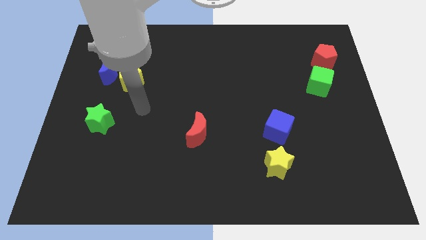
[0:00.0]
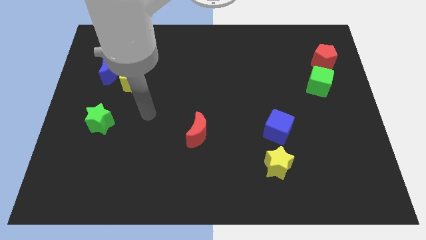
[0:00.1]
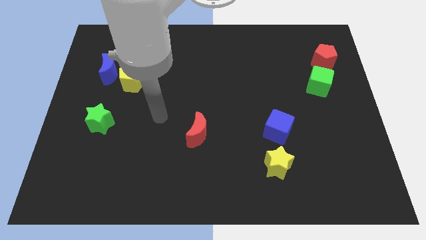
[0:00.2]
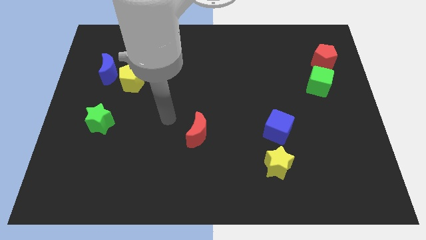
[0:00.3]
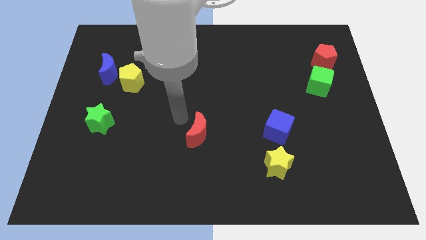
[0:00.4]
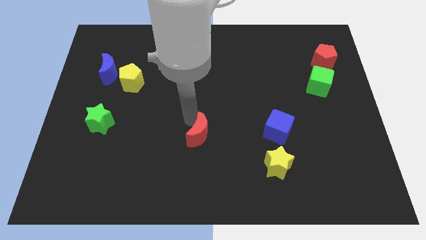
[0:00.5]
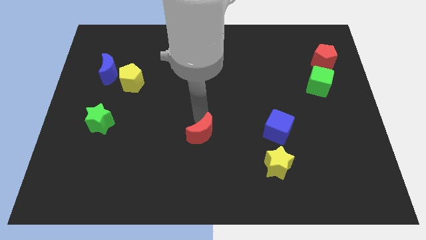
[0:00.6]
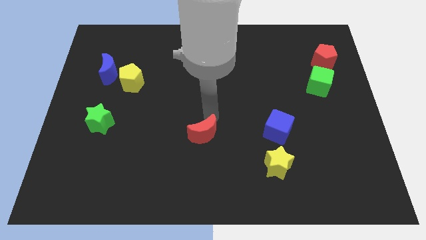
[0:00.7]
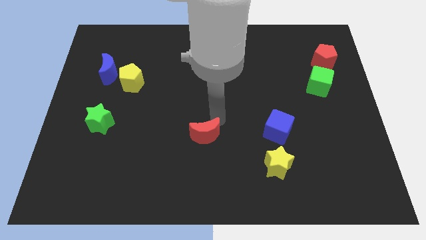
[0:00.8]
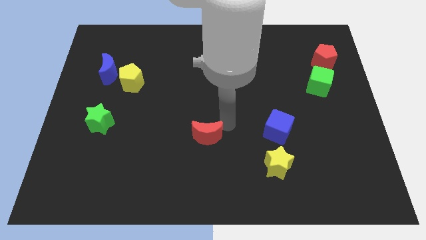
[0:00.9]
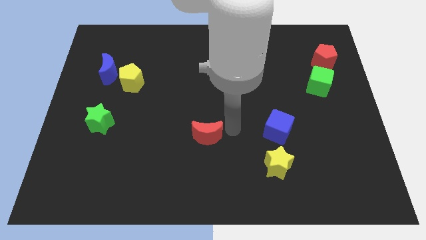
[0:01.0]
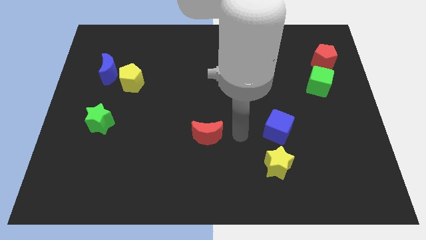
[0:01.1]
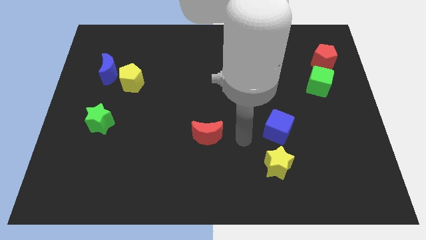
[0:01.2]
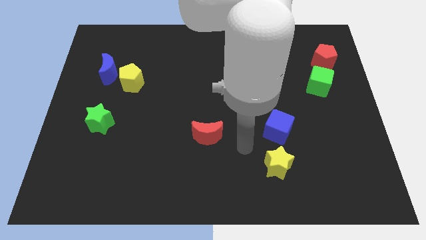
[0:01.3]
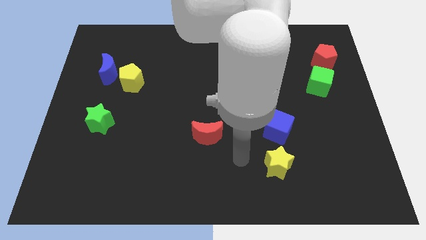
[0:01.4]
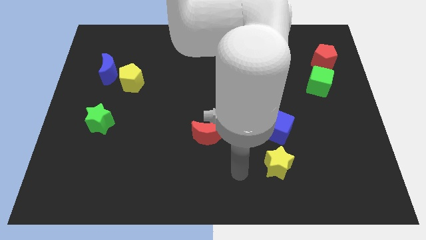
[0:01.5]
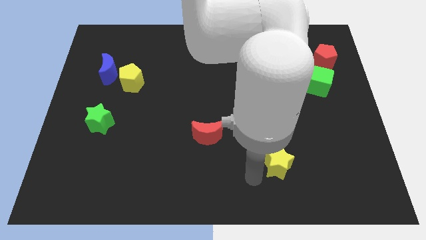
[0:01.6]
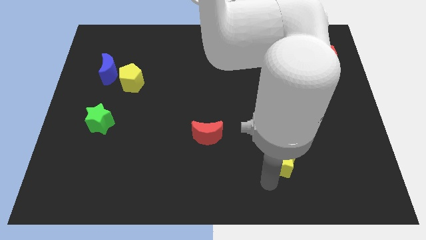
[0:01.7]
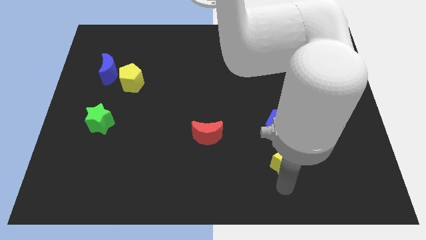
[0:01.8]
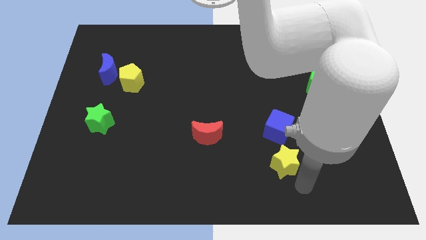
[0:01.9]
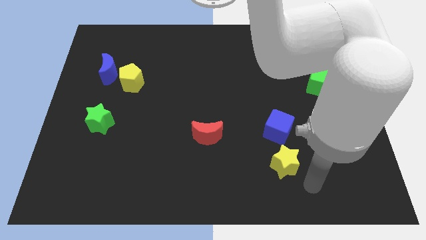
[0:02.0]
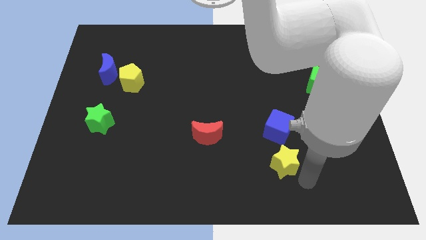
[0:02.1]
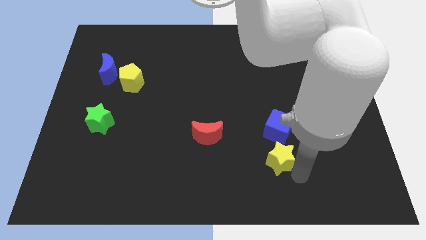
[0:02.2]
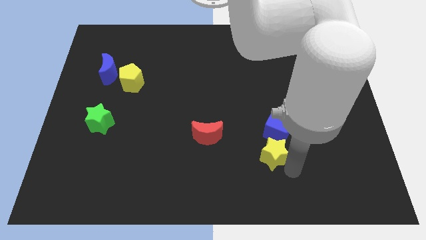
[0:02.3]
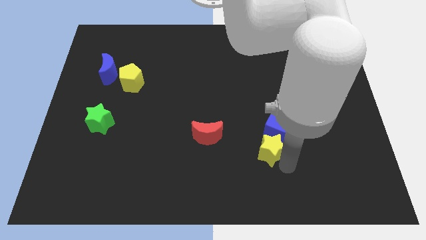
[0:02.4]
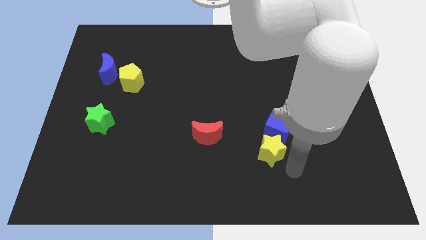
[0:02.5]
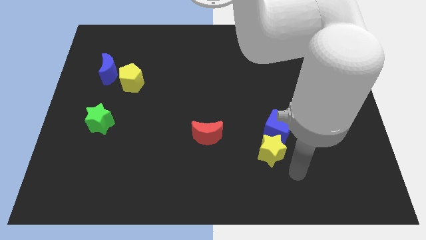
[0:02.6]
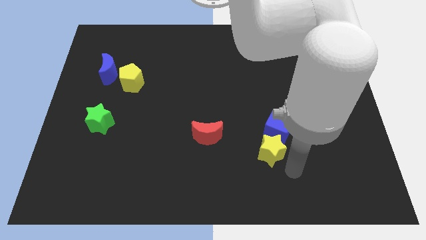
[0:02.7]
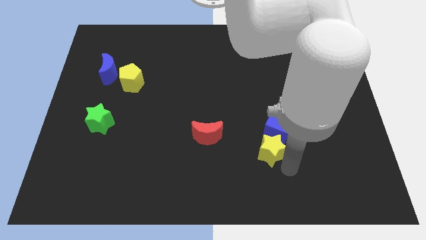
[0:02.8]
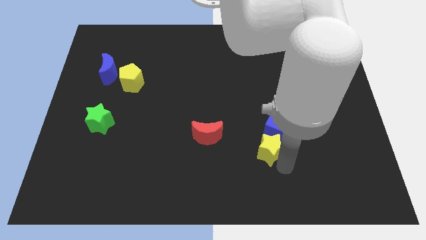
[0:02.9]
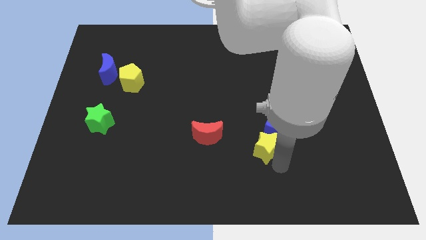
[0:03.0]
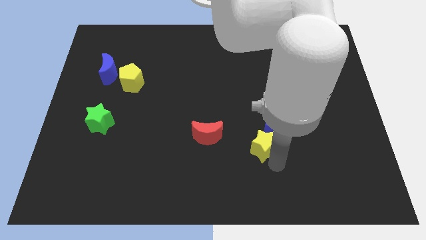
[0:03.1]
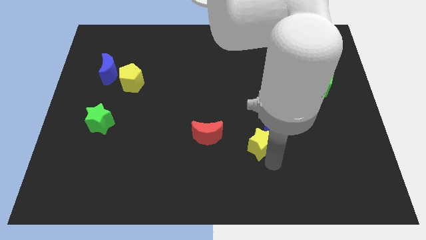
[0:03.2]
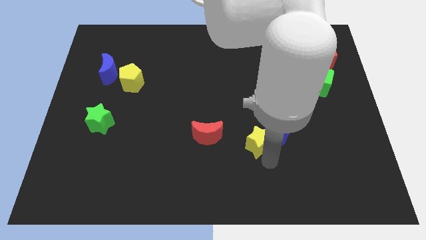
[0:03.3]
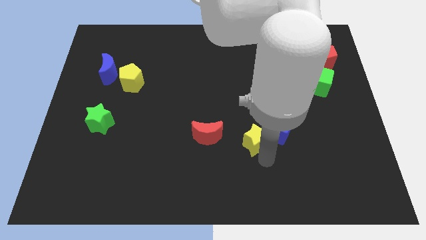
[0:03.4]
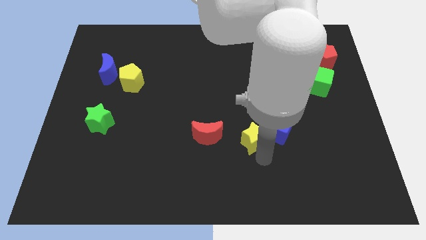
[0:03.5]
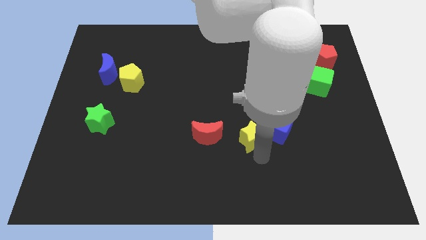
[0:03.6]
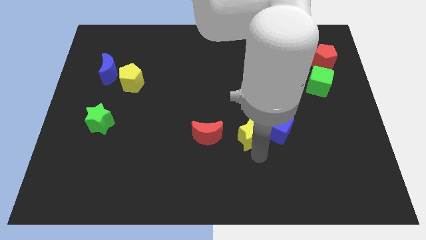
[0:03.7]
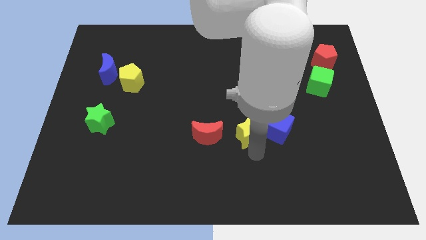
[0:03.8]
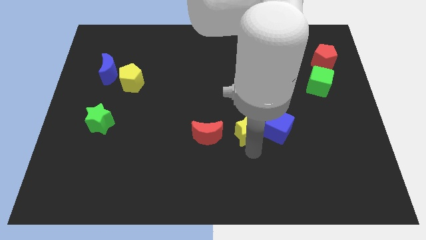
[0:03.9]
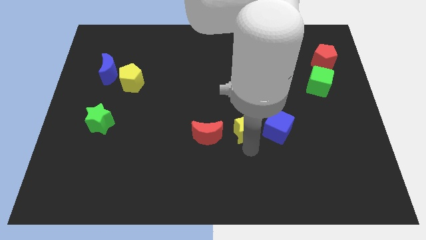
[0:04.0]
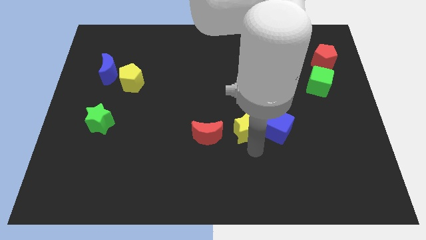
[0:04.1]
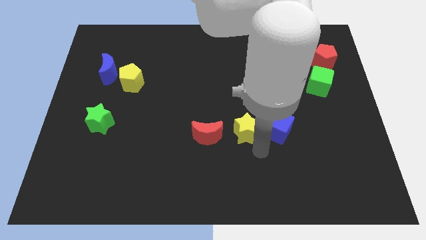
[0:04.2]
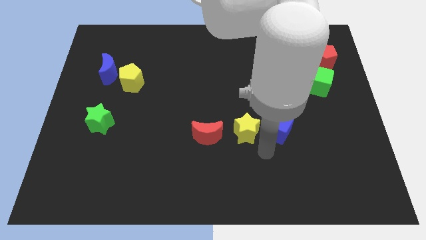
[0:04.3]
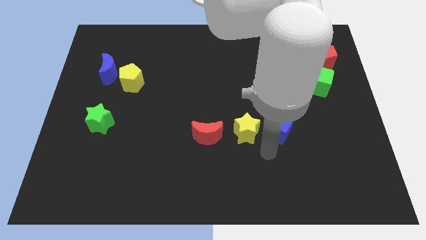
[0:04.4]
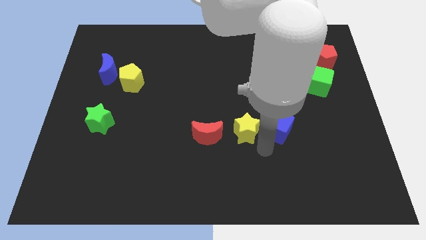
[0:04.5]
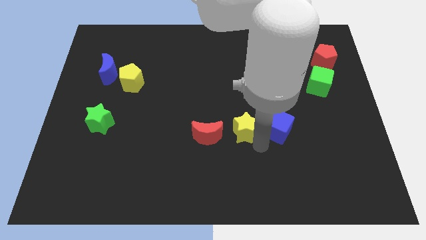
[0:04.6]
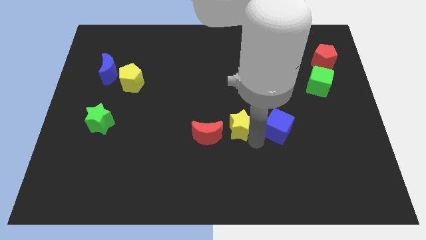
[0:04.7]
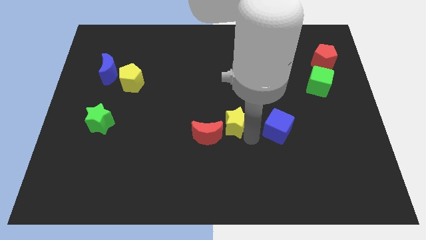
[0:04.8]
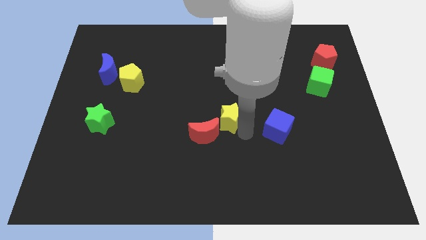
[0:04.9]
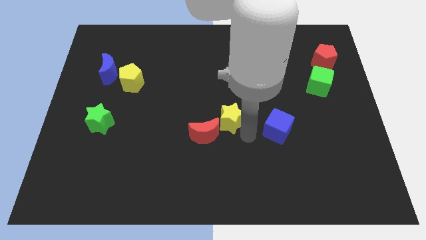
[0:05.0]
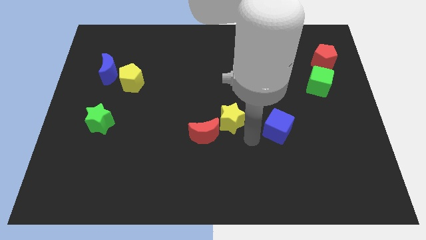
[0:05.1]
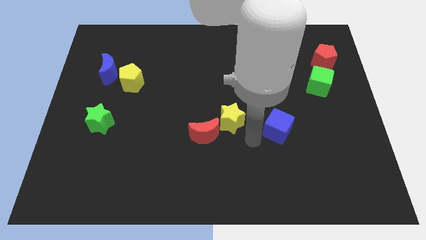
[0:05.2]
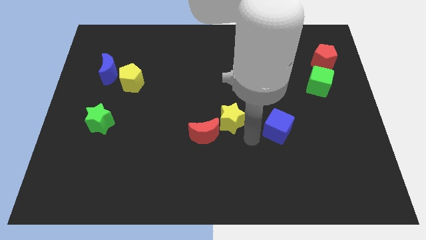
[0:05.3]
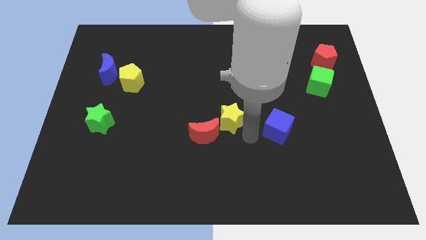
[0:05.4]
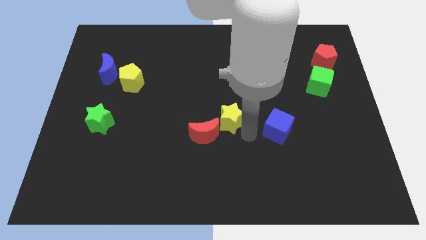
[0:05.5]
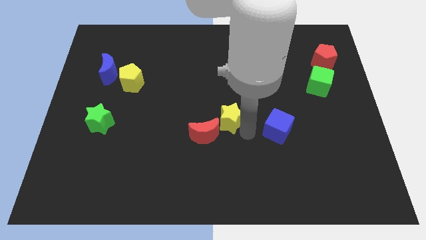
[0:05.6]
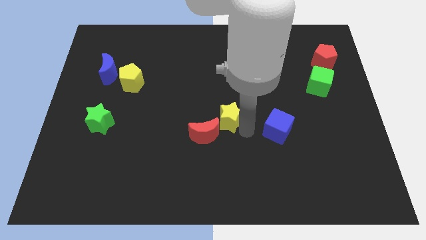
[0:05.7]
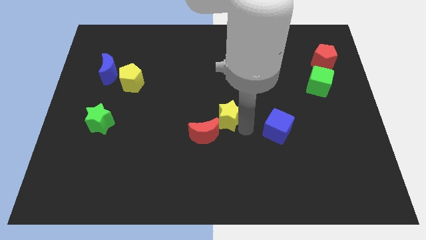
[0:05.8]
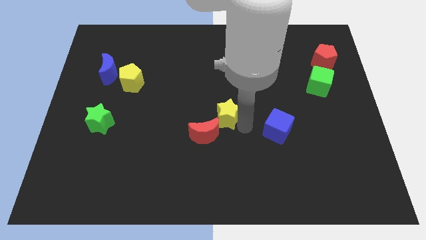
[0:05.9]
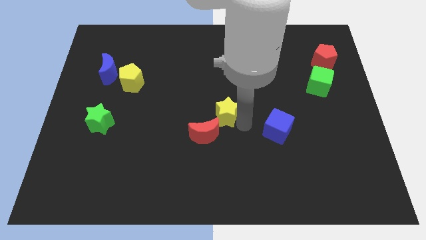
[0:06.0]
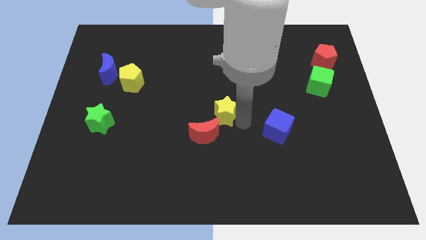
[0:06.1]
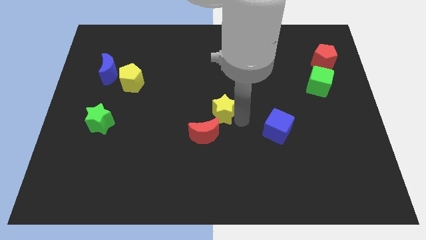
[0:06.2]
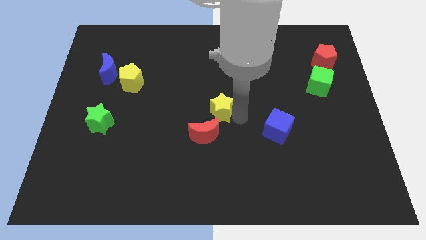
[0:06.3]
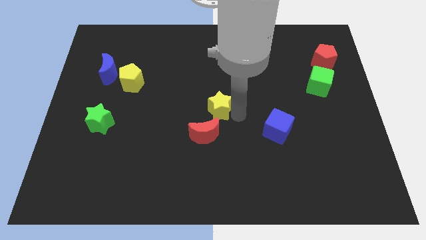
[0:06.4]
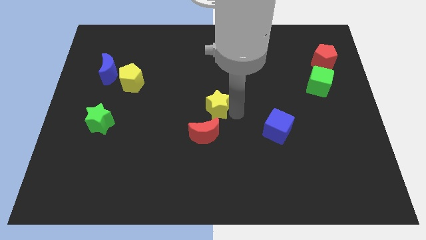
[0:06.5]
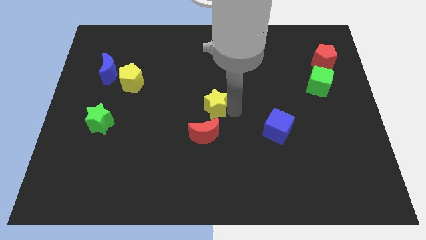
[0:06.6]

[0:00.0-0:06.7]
push the yellow star upwards and then to the left

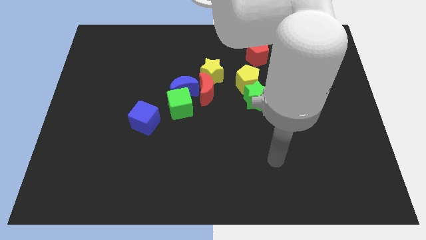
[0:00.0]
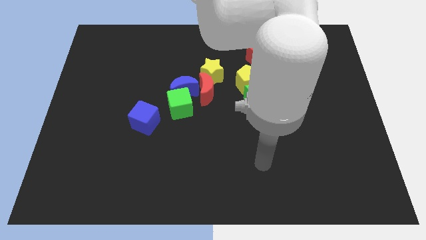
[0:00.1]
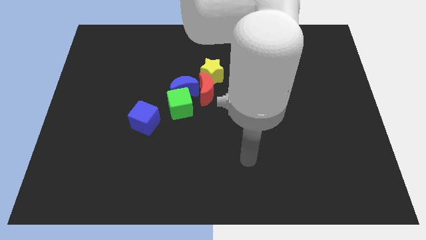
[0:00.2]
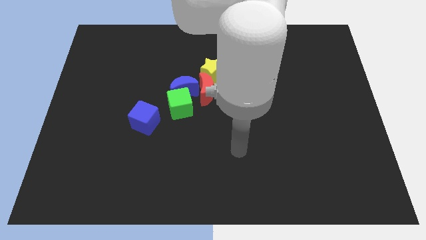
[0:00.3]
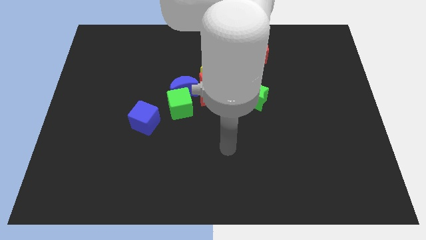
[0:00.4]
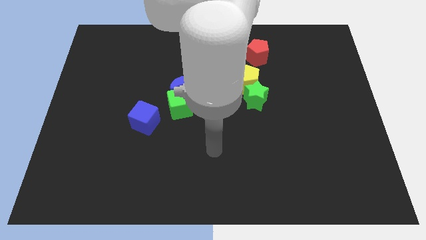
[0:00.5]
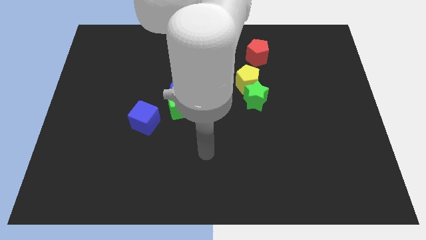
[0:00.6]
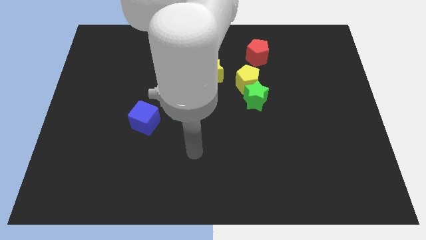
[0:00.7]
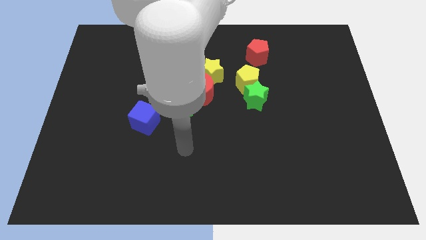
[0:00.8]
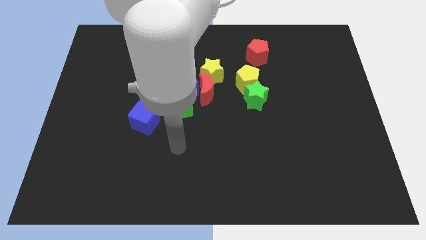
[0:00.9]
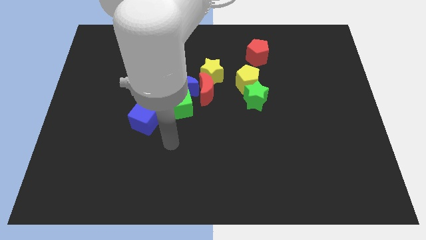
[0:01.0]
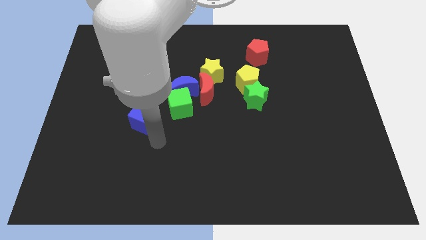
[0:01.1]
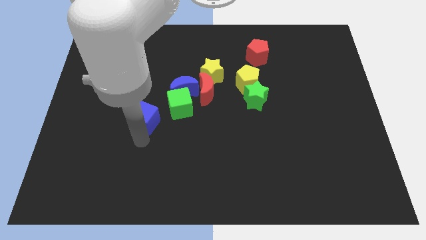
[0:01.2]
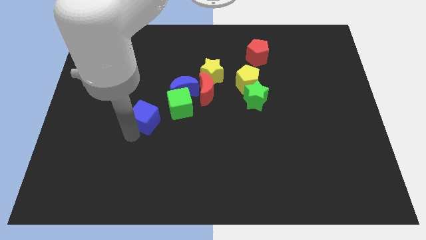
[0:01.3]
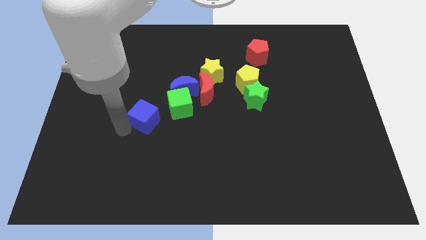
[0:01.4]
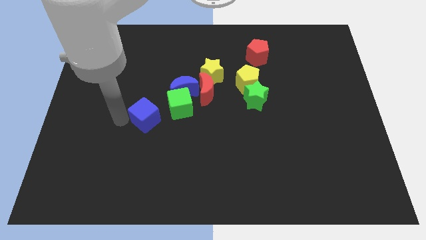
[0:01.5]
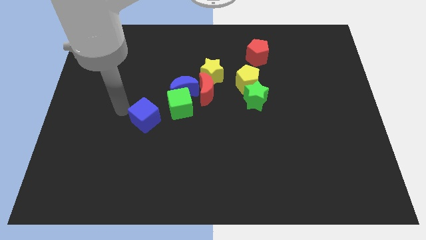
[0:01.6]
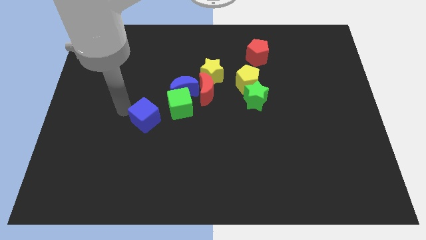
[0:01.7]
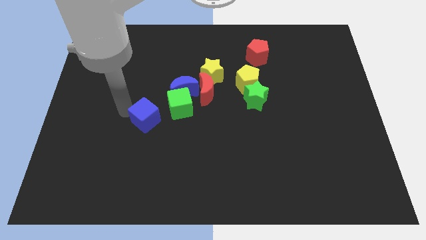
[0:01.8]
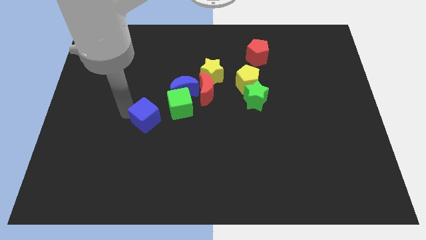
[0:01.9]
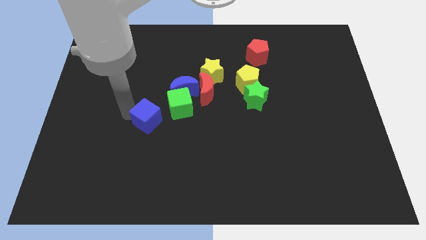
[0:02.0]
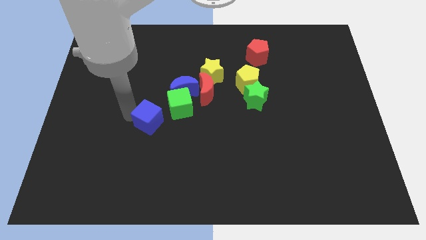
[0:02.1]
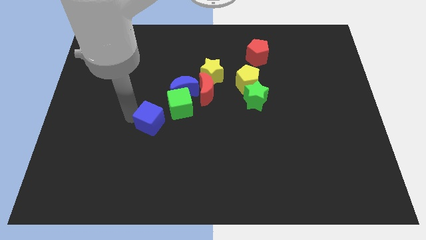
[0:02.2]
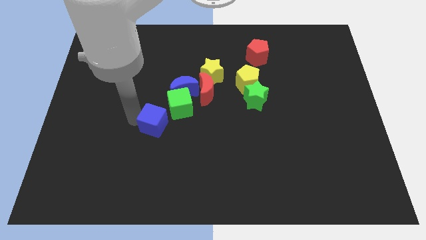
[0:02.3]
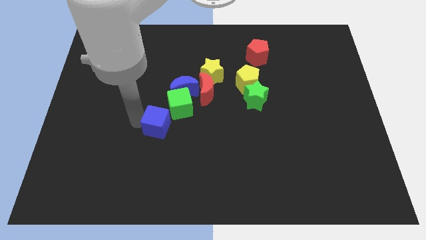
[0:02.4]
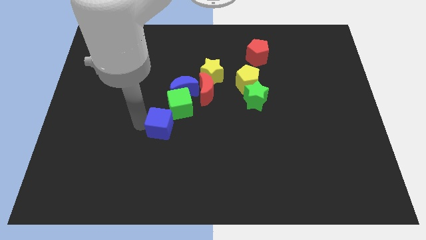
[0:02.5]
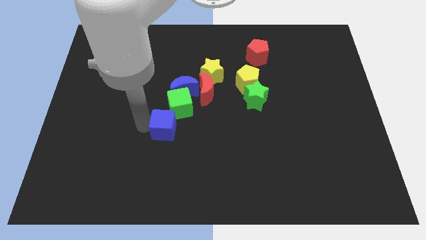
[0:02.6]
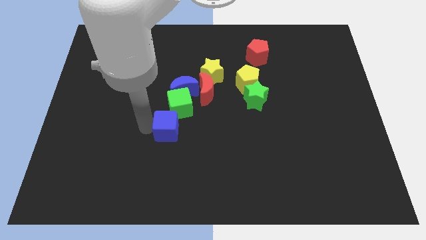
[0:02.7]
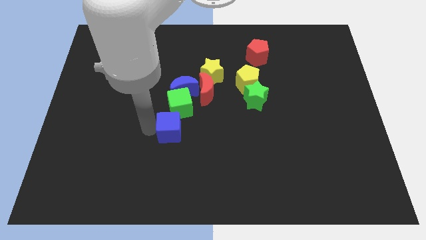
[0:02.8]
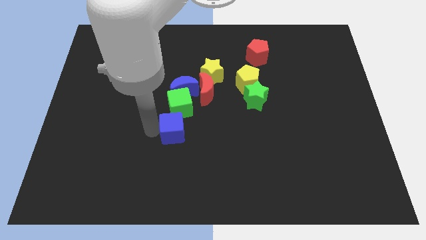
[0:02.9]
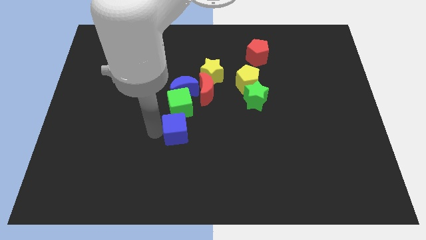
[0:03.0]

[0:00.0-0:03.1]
push the blue cube a little bit right
